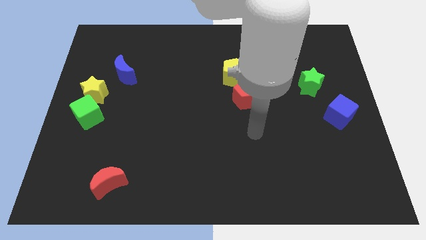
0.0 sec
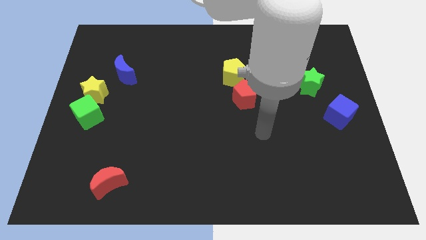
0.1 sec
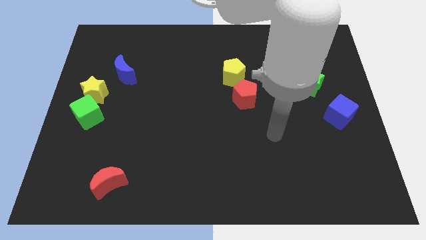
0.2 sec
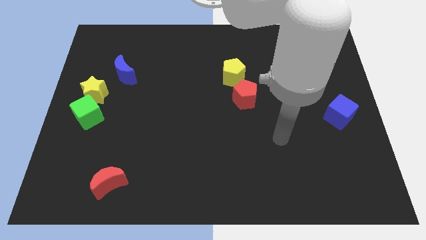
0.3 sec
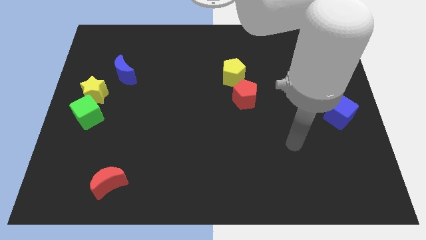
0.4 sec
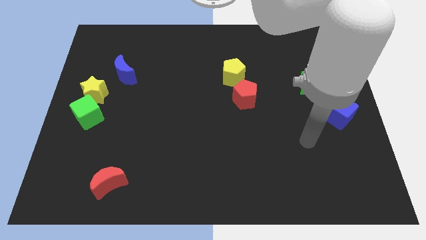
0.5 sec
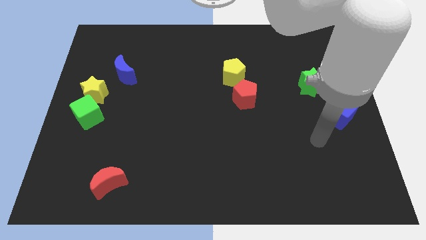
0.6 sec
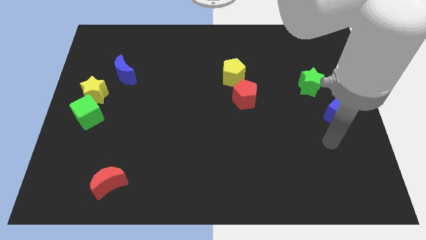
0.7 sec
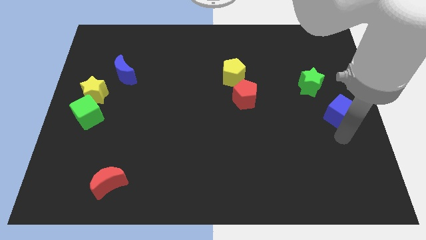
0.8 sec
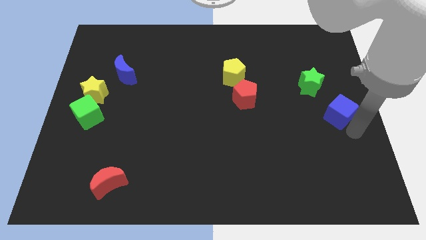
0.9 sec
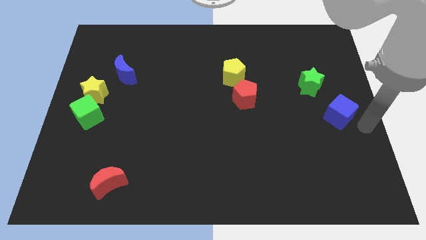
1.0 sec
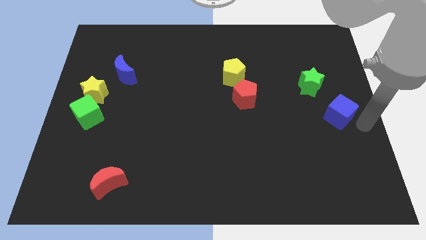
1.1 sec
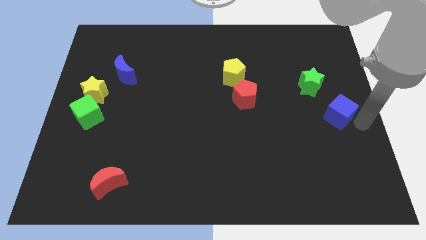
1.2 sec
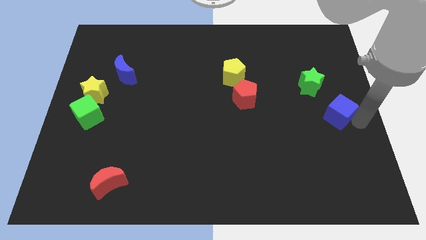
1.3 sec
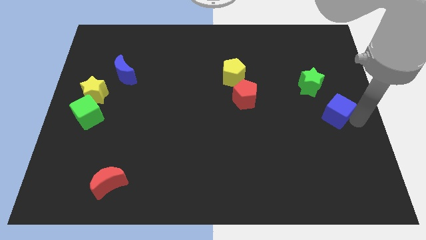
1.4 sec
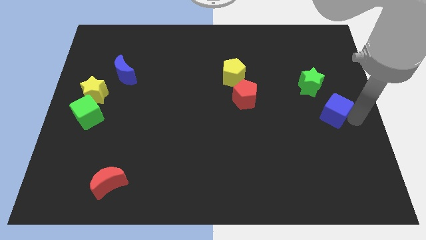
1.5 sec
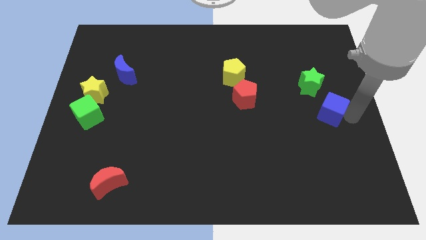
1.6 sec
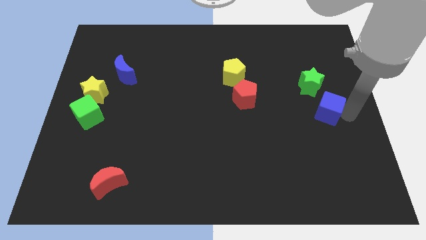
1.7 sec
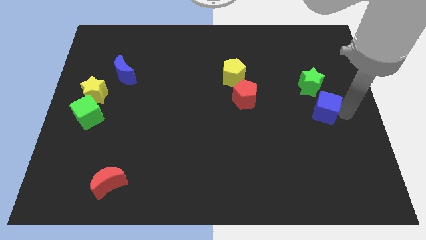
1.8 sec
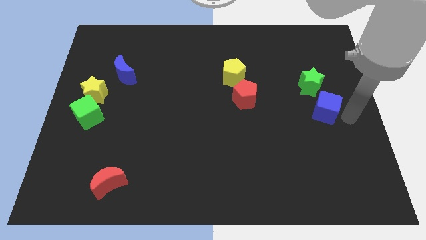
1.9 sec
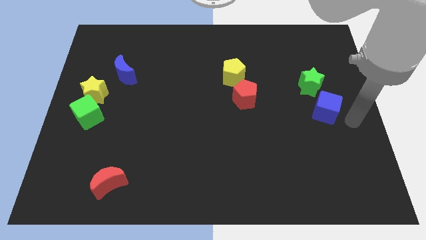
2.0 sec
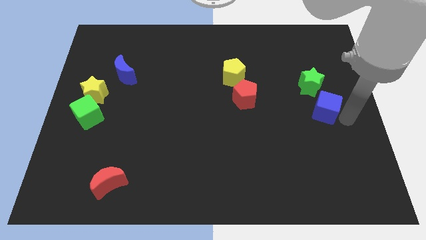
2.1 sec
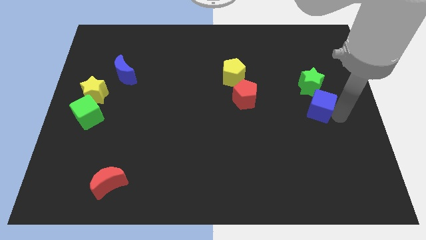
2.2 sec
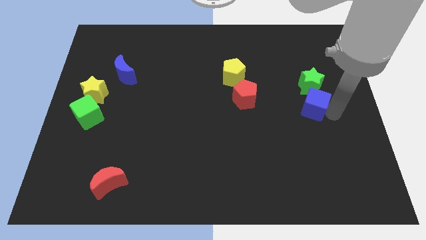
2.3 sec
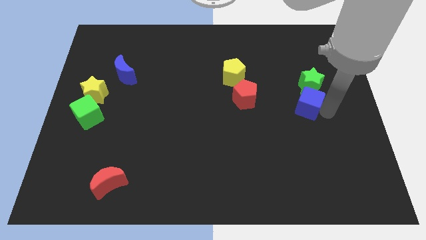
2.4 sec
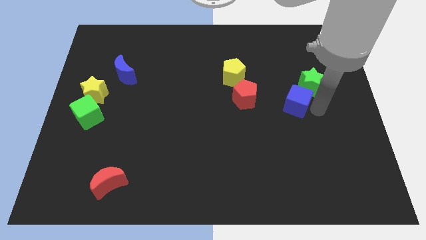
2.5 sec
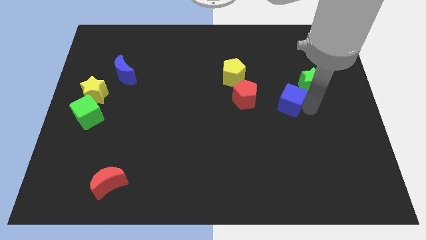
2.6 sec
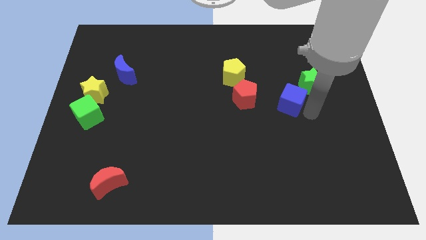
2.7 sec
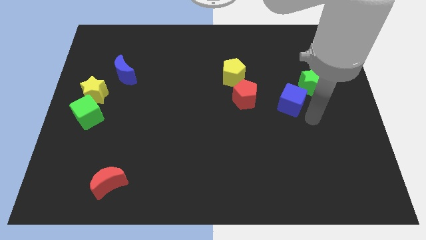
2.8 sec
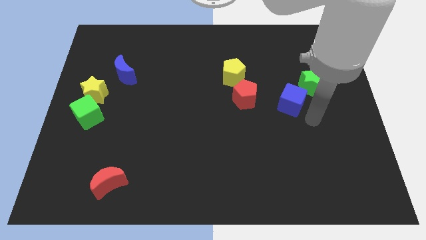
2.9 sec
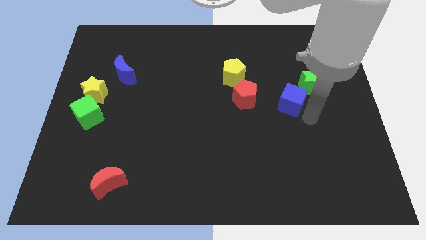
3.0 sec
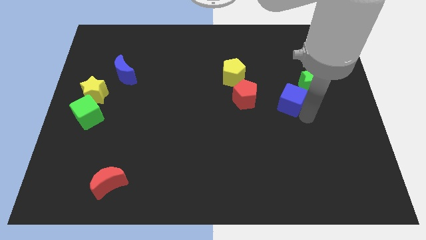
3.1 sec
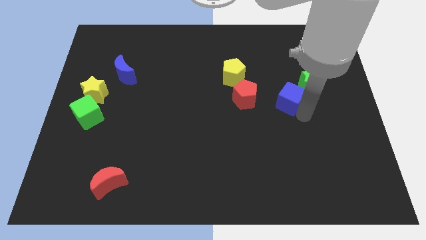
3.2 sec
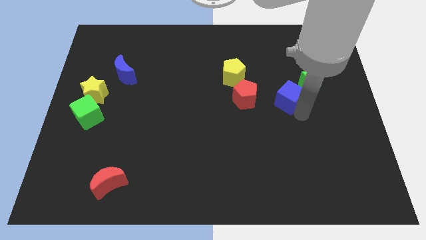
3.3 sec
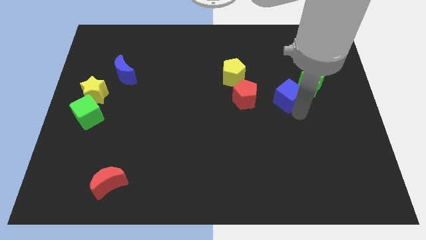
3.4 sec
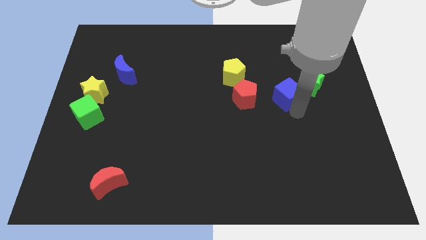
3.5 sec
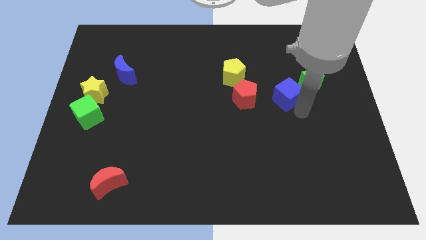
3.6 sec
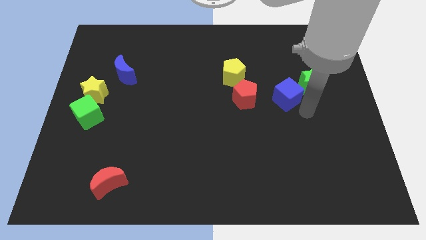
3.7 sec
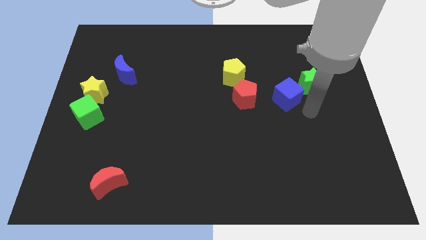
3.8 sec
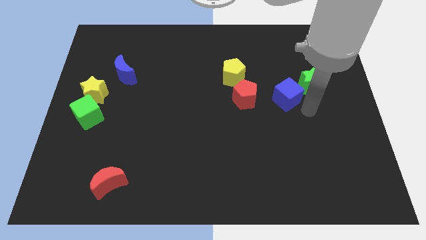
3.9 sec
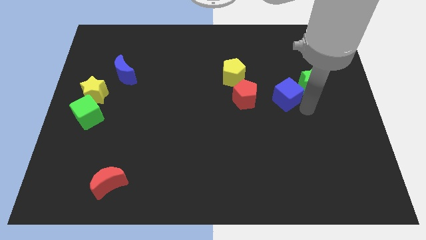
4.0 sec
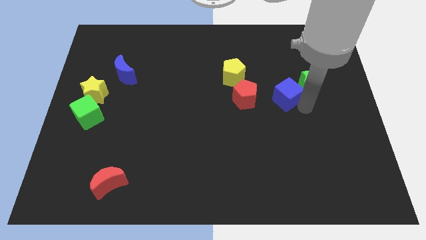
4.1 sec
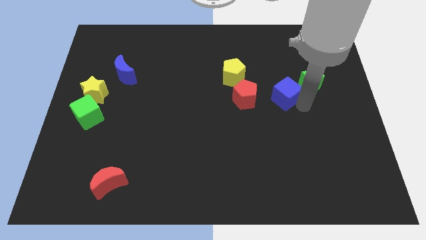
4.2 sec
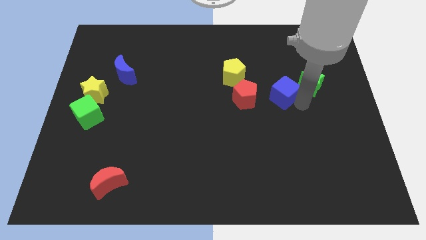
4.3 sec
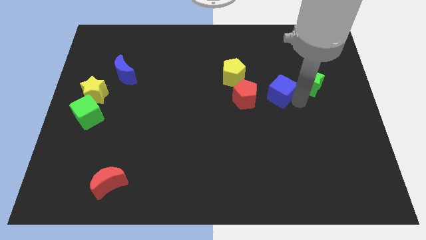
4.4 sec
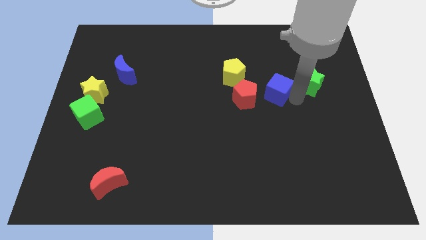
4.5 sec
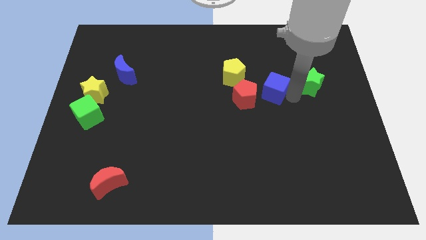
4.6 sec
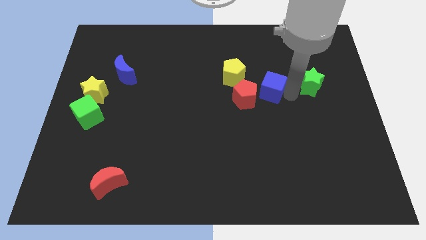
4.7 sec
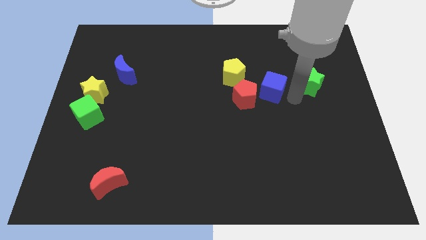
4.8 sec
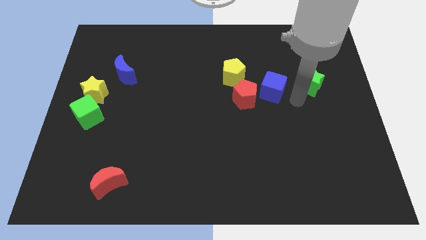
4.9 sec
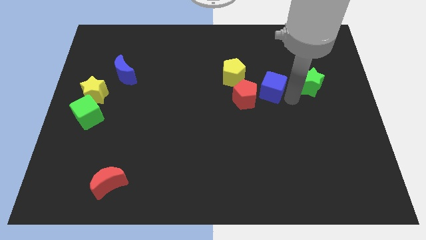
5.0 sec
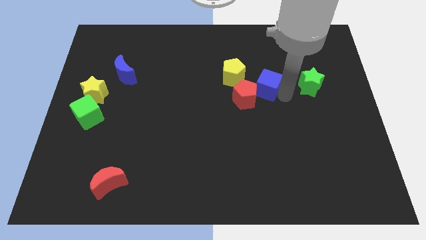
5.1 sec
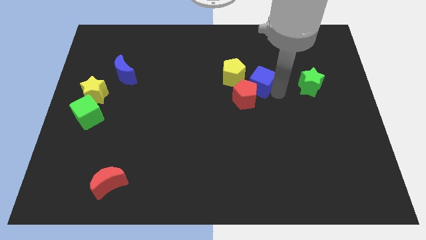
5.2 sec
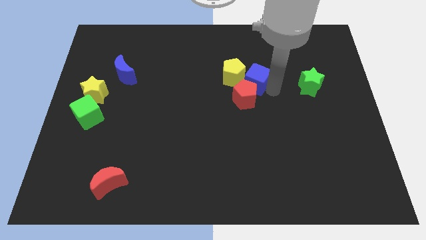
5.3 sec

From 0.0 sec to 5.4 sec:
move the blue cube close to the yellow pentagon
